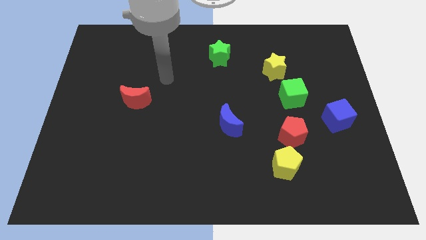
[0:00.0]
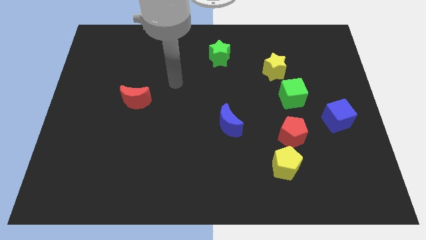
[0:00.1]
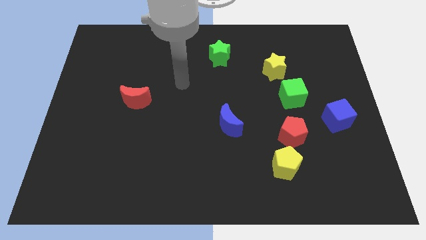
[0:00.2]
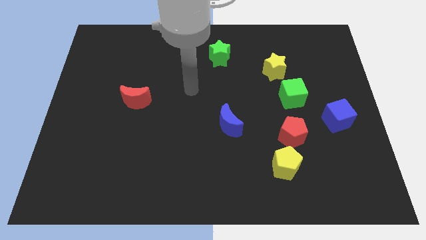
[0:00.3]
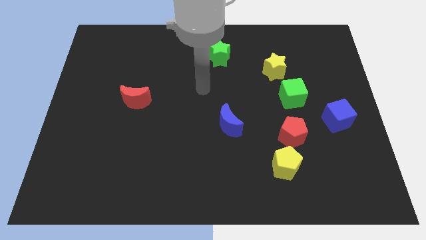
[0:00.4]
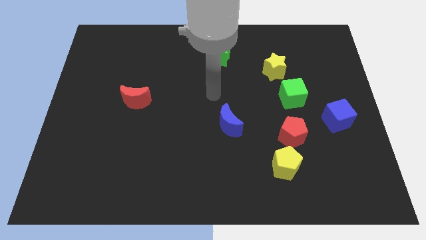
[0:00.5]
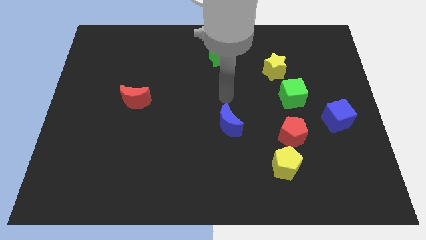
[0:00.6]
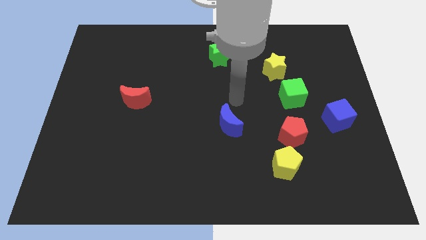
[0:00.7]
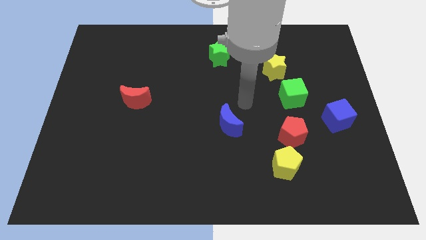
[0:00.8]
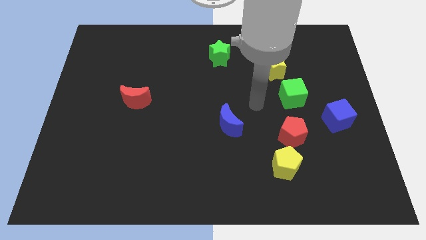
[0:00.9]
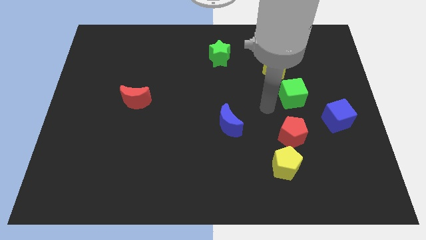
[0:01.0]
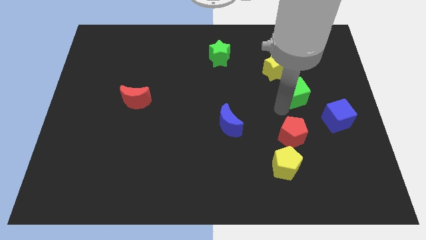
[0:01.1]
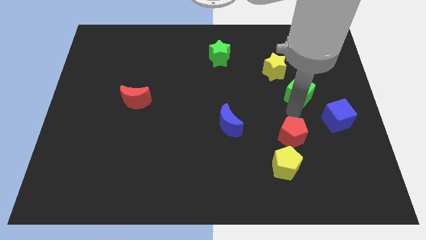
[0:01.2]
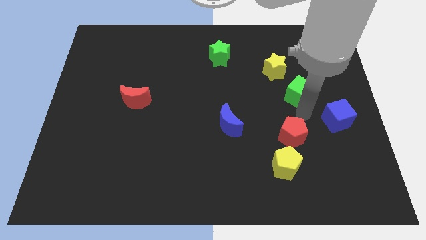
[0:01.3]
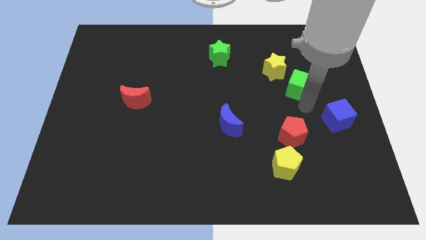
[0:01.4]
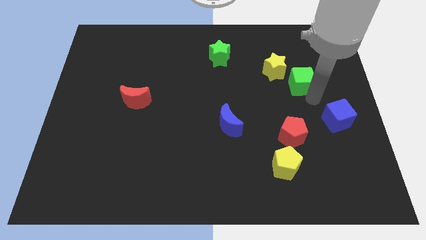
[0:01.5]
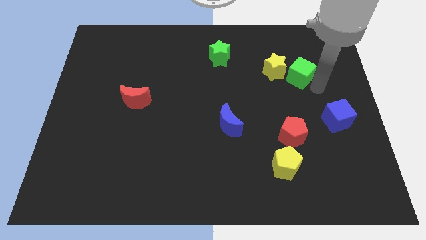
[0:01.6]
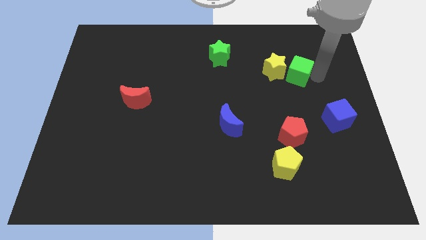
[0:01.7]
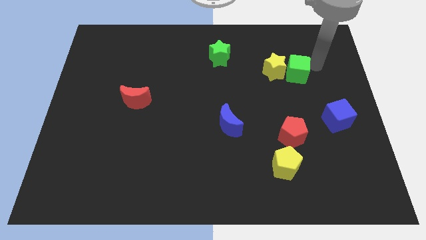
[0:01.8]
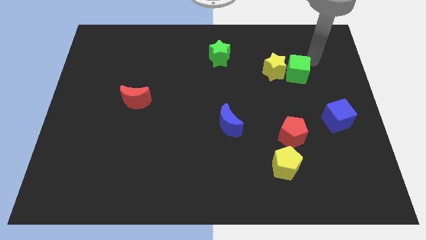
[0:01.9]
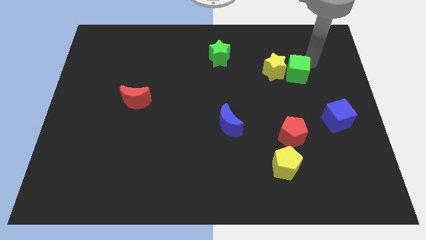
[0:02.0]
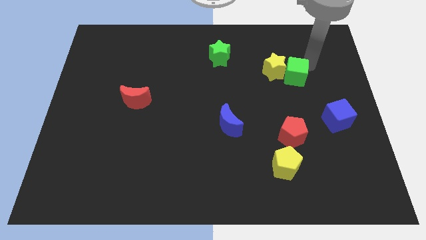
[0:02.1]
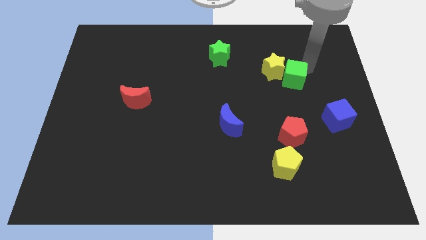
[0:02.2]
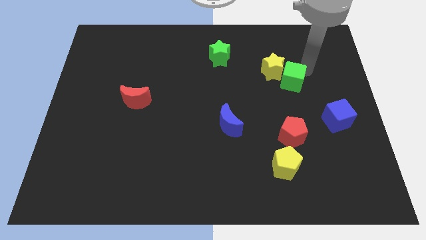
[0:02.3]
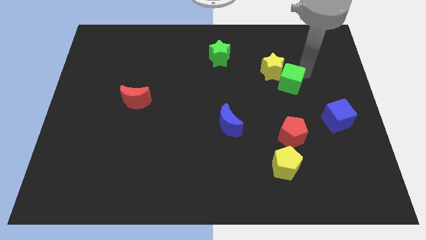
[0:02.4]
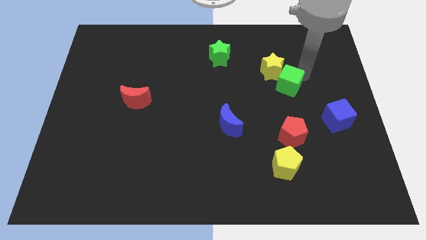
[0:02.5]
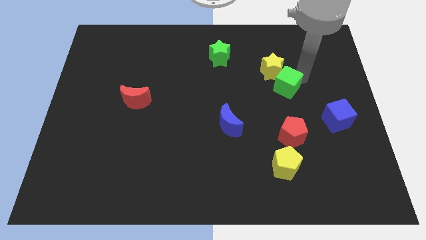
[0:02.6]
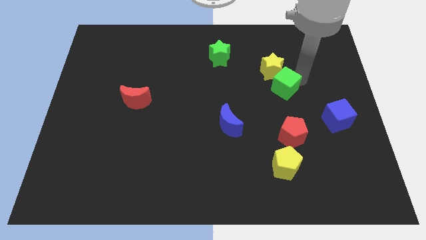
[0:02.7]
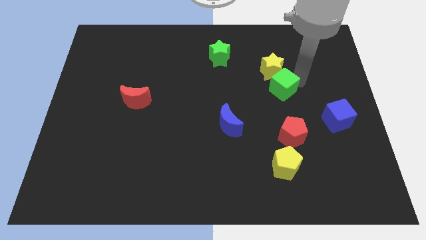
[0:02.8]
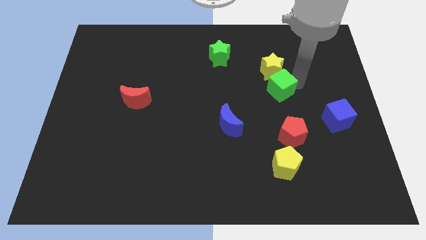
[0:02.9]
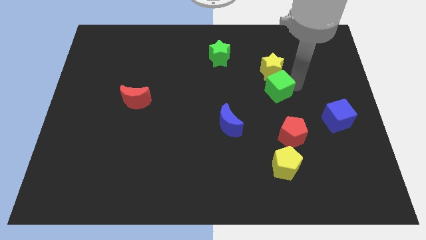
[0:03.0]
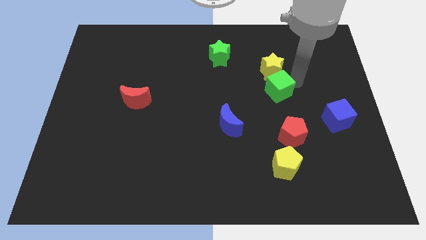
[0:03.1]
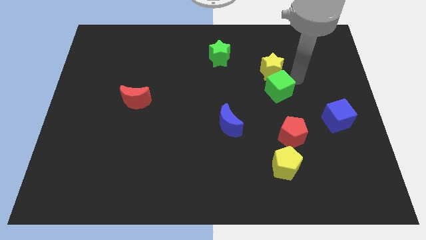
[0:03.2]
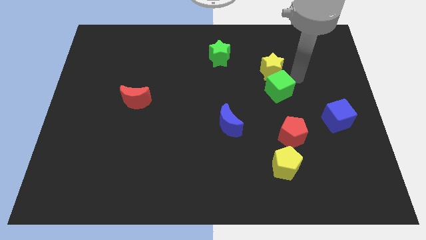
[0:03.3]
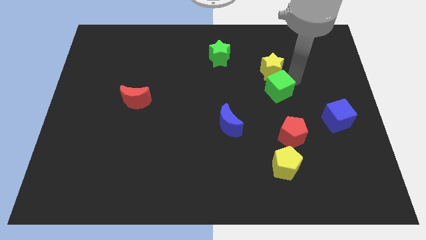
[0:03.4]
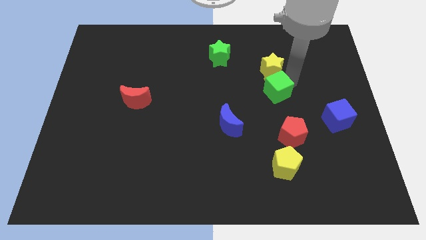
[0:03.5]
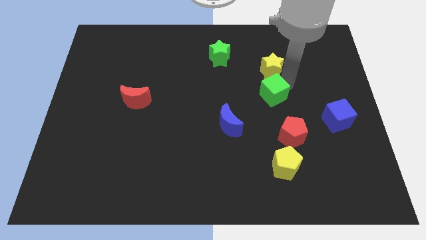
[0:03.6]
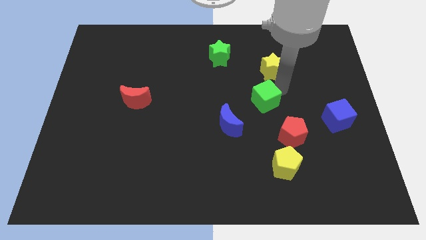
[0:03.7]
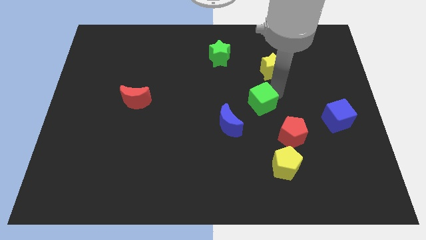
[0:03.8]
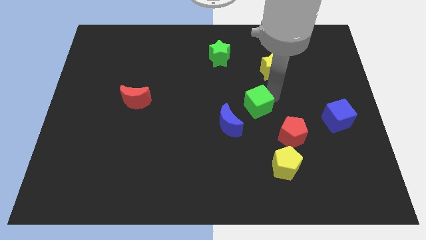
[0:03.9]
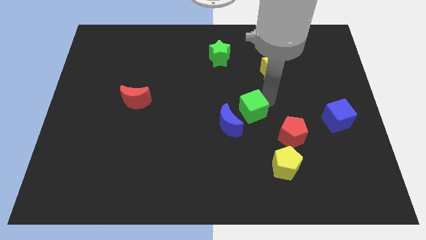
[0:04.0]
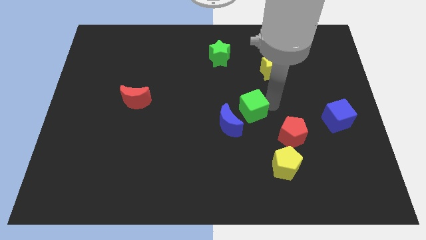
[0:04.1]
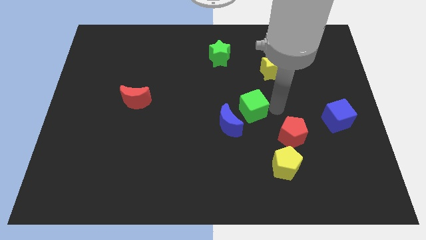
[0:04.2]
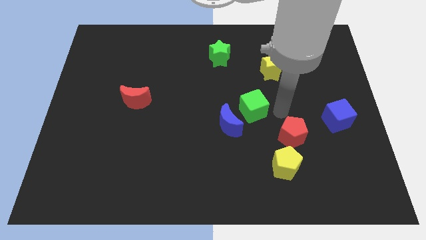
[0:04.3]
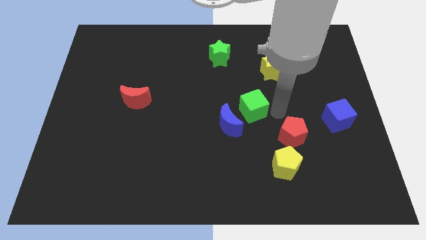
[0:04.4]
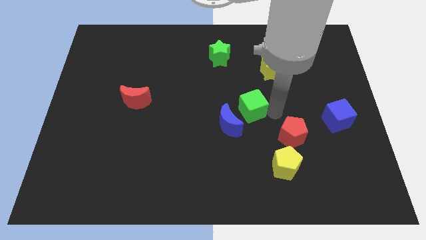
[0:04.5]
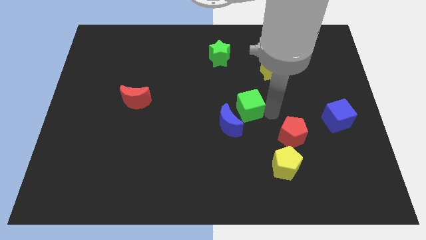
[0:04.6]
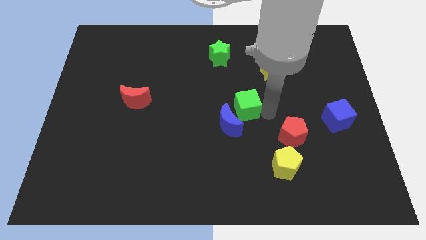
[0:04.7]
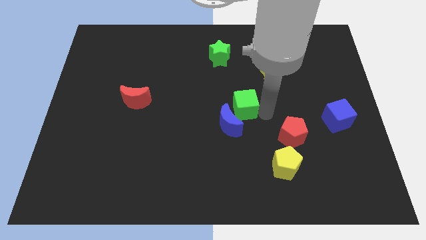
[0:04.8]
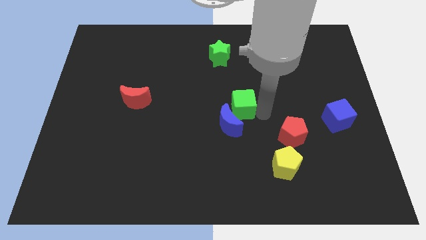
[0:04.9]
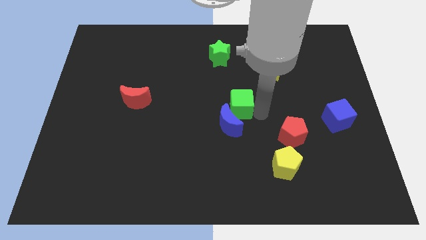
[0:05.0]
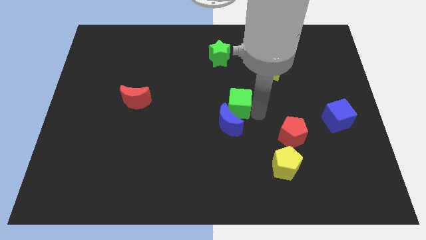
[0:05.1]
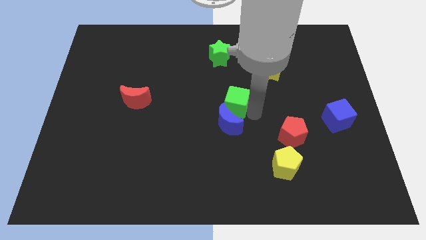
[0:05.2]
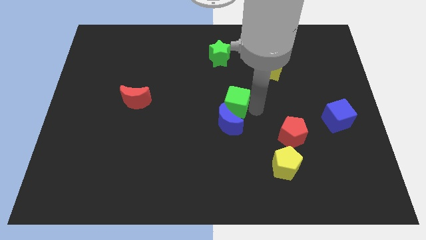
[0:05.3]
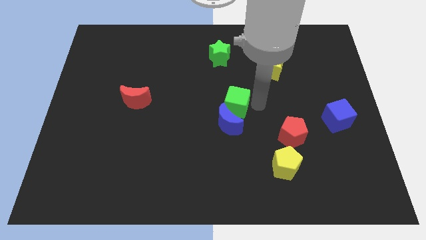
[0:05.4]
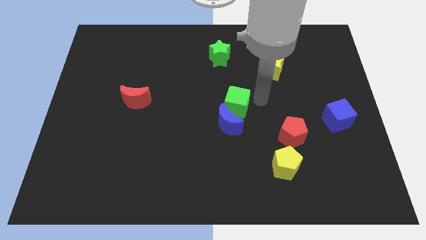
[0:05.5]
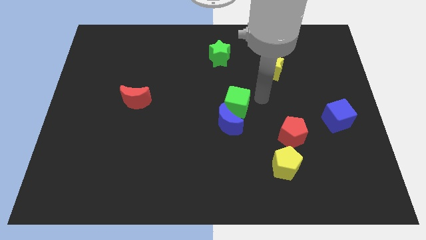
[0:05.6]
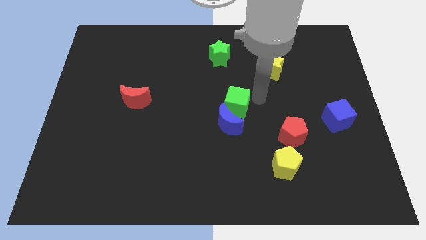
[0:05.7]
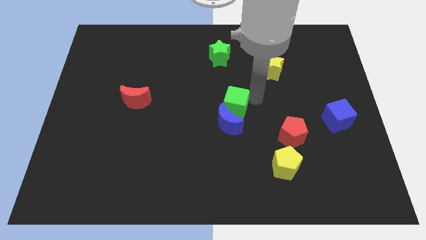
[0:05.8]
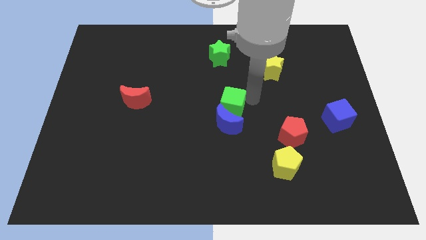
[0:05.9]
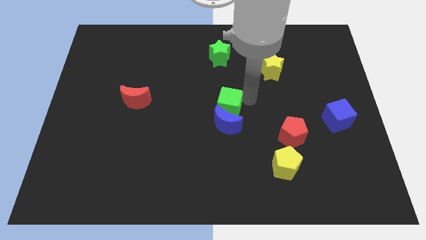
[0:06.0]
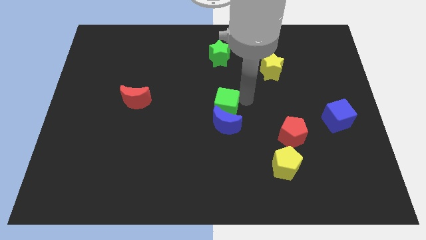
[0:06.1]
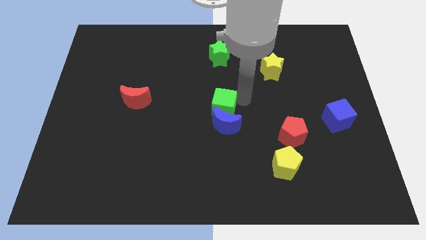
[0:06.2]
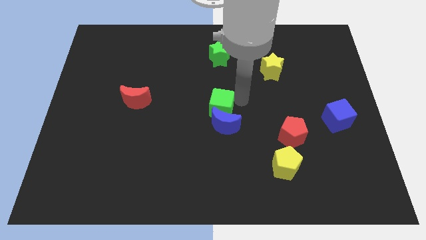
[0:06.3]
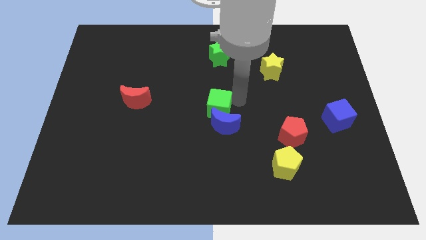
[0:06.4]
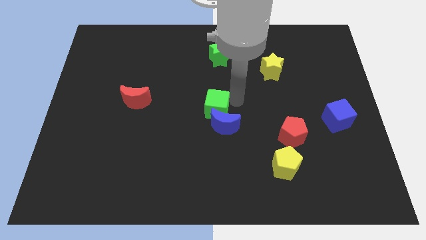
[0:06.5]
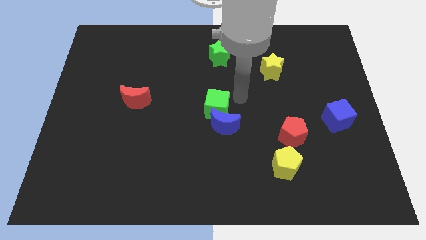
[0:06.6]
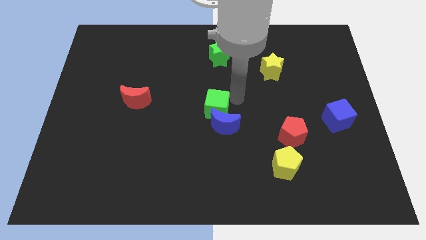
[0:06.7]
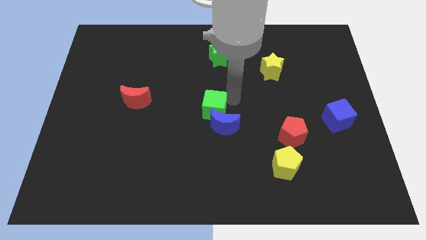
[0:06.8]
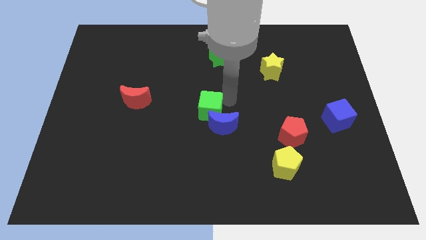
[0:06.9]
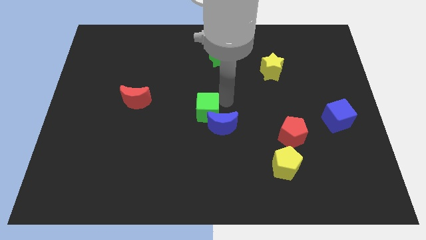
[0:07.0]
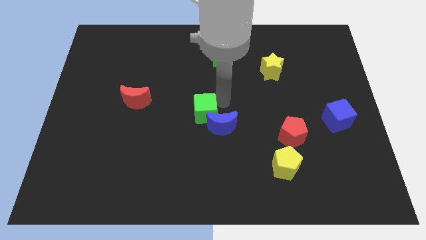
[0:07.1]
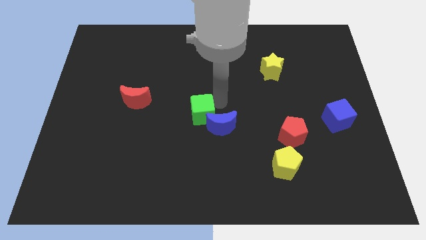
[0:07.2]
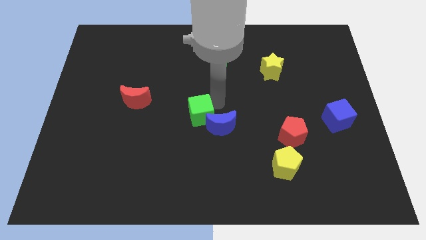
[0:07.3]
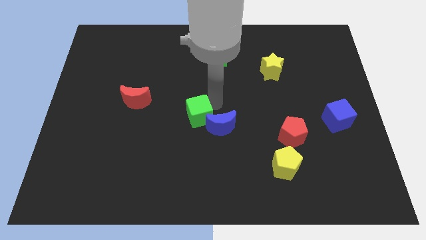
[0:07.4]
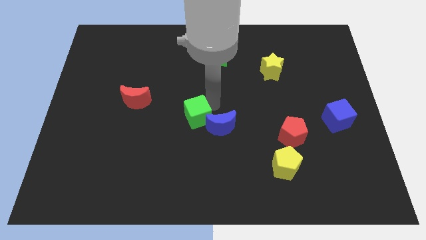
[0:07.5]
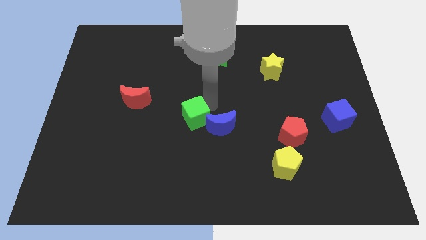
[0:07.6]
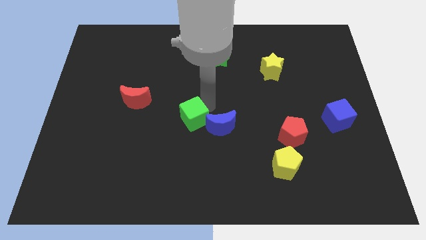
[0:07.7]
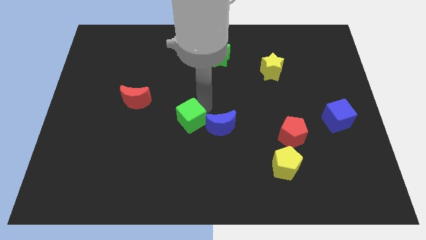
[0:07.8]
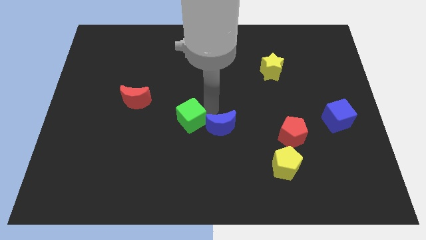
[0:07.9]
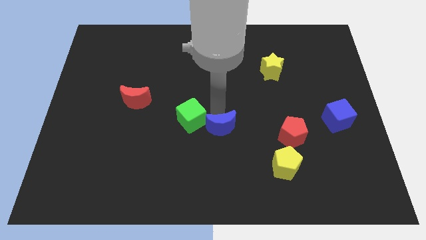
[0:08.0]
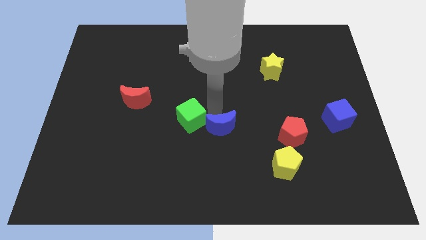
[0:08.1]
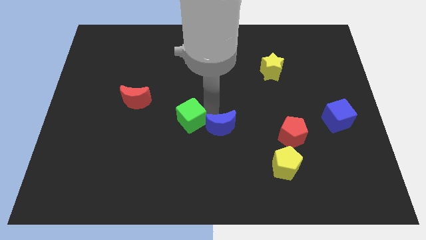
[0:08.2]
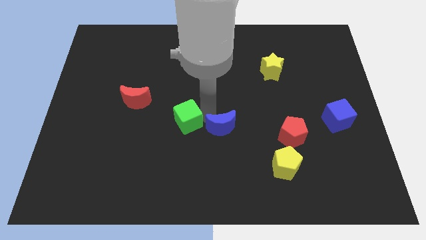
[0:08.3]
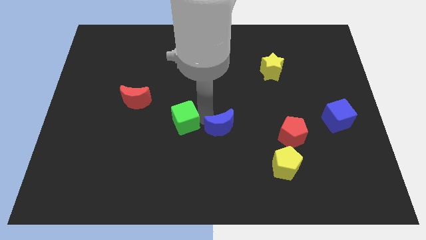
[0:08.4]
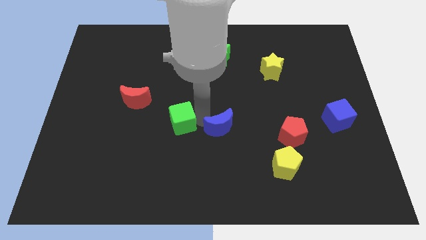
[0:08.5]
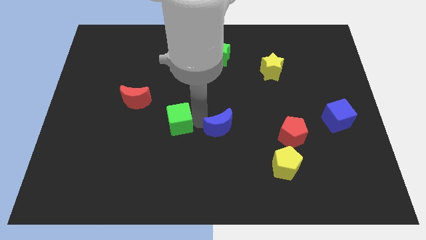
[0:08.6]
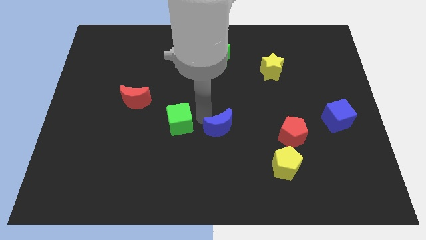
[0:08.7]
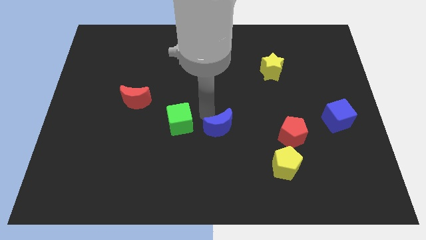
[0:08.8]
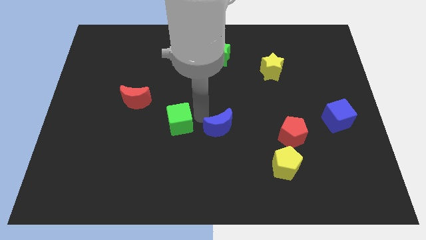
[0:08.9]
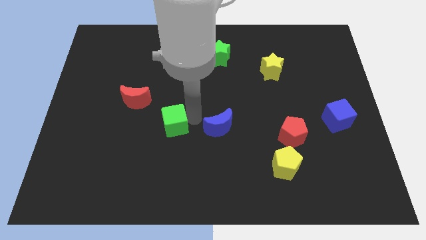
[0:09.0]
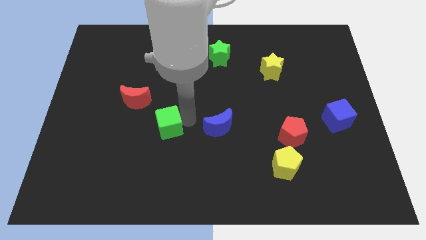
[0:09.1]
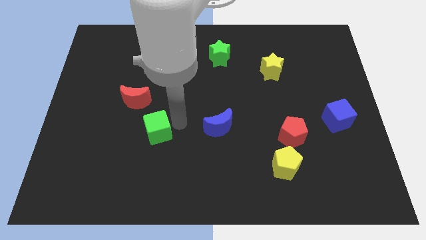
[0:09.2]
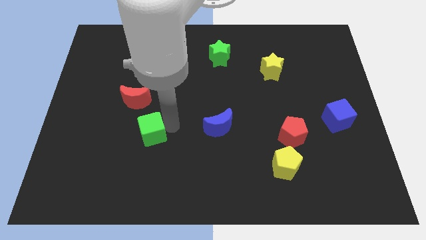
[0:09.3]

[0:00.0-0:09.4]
move the green cube below the red moon
